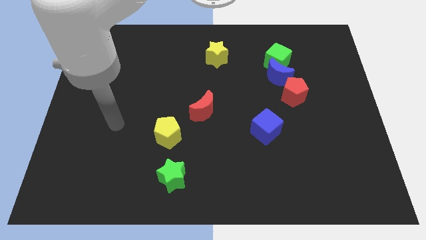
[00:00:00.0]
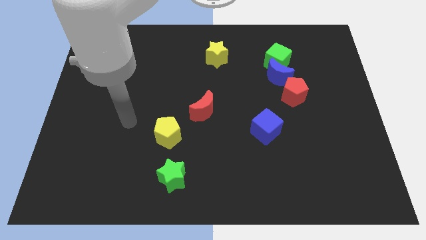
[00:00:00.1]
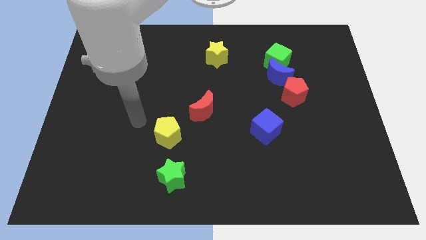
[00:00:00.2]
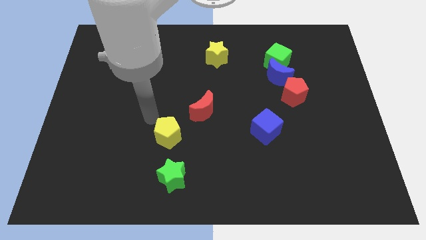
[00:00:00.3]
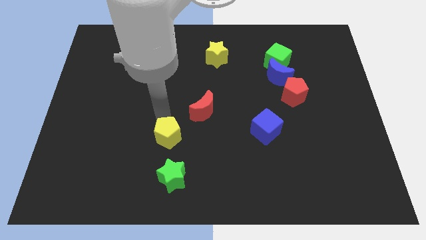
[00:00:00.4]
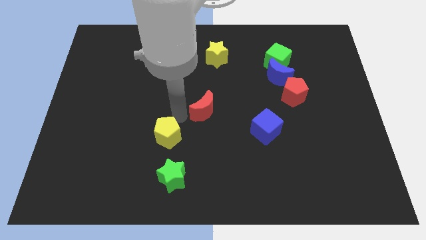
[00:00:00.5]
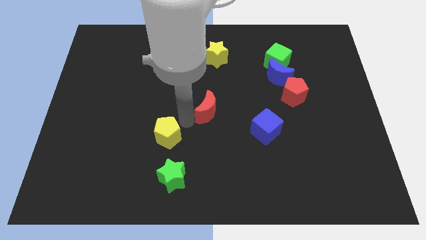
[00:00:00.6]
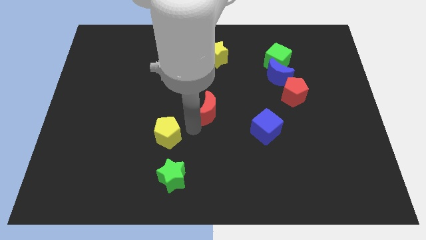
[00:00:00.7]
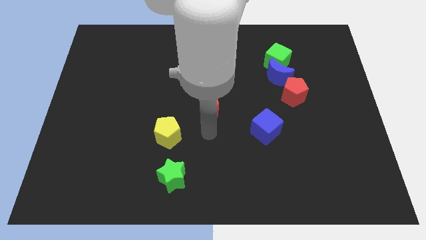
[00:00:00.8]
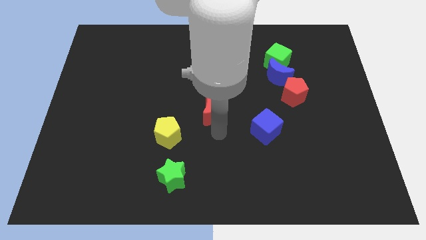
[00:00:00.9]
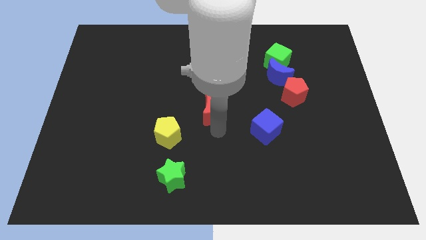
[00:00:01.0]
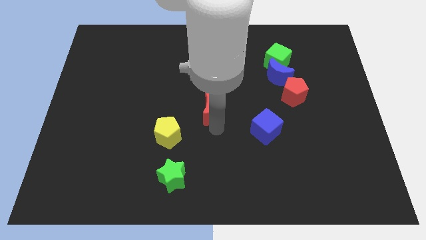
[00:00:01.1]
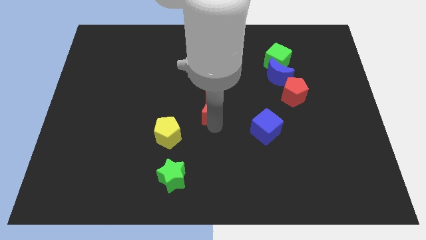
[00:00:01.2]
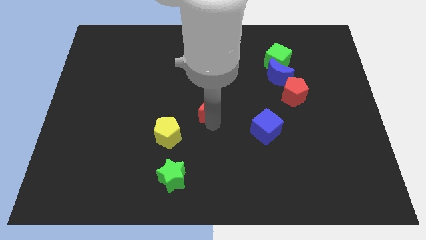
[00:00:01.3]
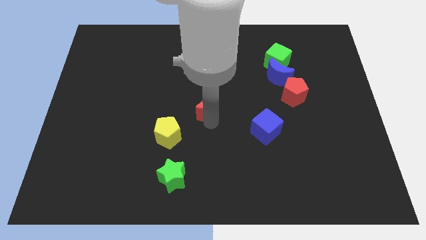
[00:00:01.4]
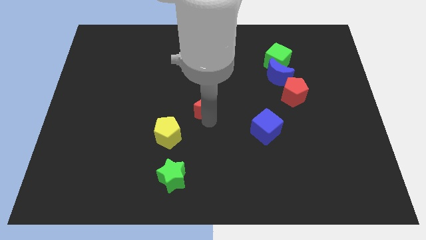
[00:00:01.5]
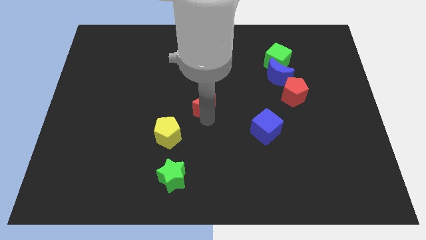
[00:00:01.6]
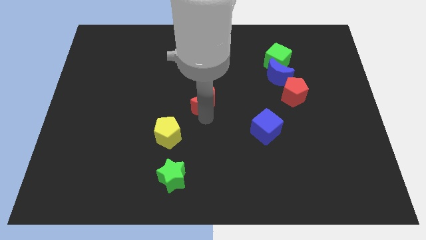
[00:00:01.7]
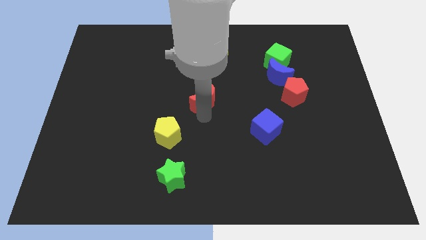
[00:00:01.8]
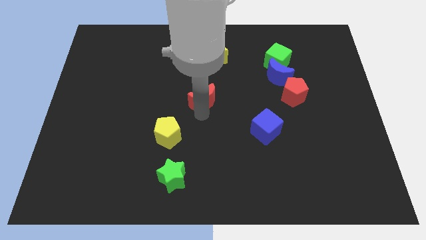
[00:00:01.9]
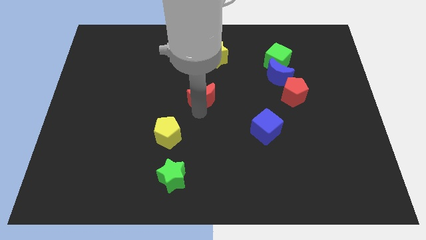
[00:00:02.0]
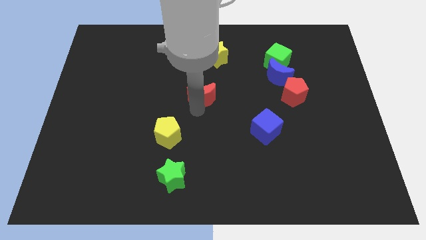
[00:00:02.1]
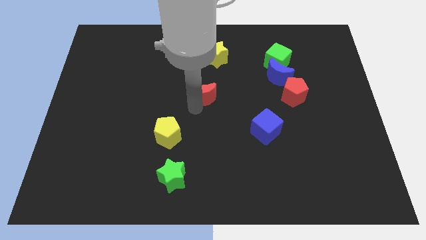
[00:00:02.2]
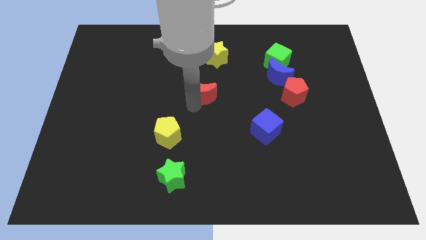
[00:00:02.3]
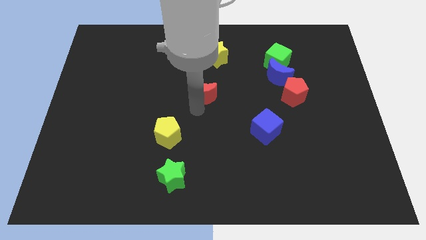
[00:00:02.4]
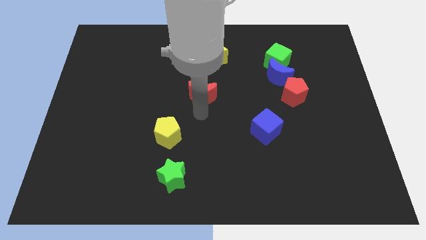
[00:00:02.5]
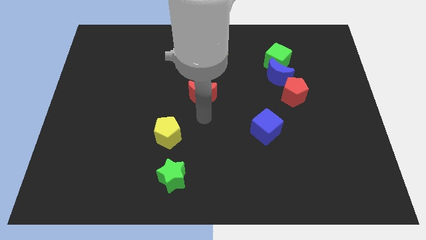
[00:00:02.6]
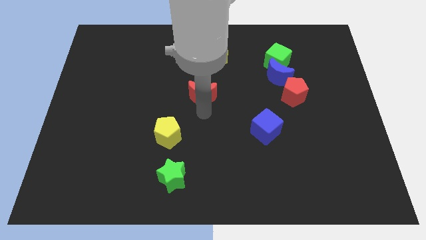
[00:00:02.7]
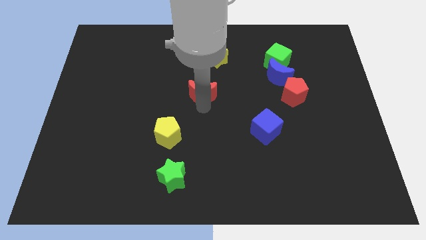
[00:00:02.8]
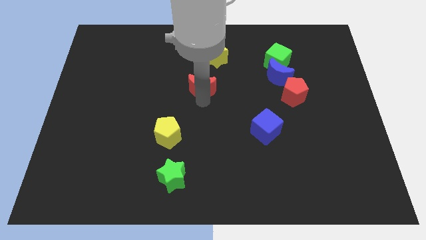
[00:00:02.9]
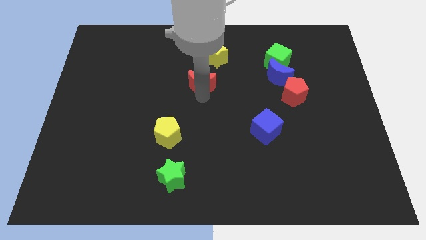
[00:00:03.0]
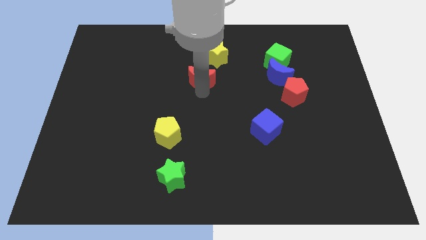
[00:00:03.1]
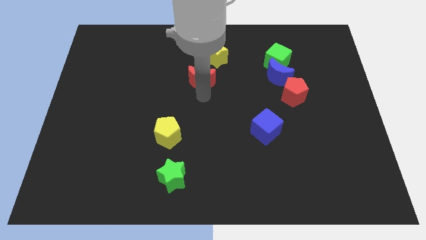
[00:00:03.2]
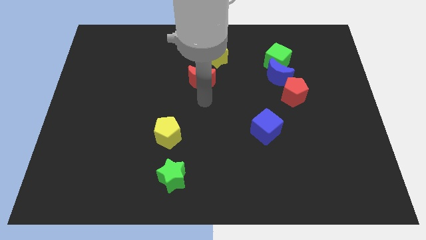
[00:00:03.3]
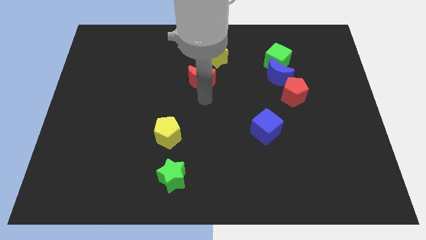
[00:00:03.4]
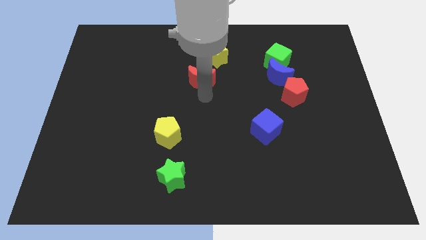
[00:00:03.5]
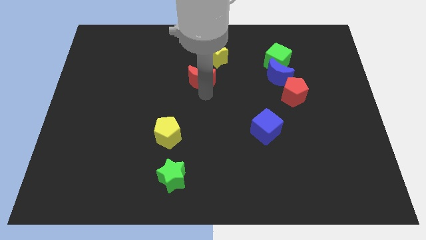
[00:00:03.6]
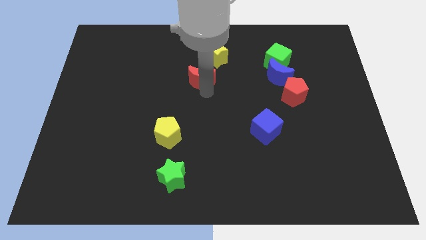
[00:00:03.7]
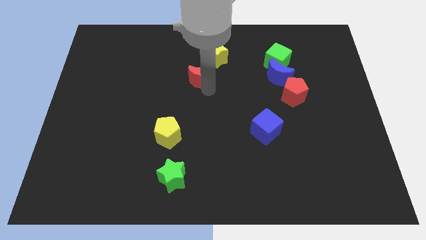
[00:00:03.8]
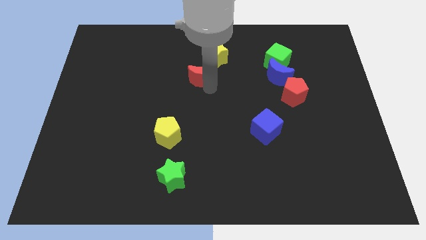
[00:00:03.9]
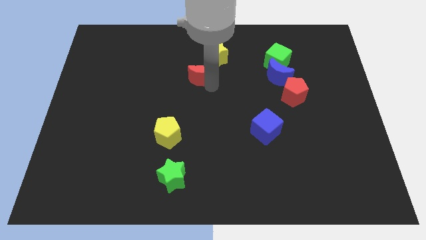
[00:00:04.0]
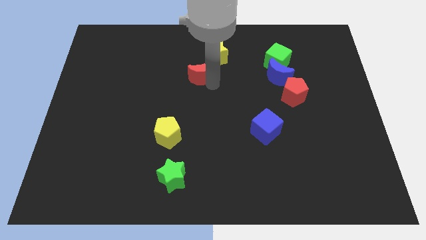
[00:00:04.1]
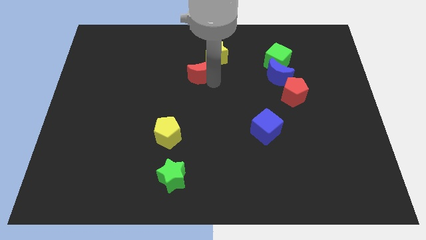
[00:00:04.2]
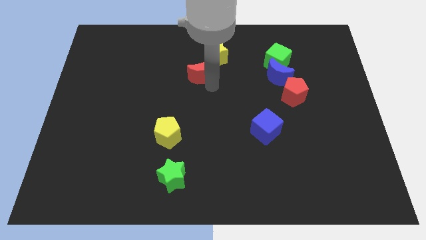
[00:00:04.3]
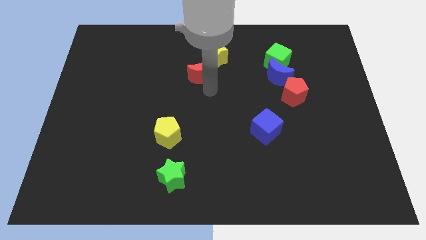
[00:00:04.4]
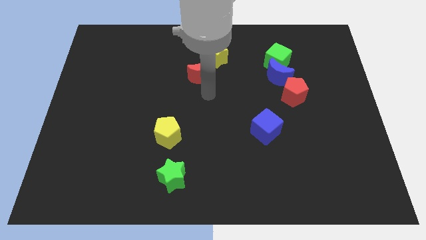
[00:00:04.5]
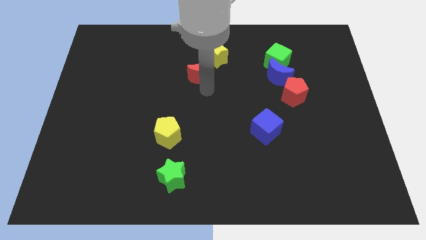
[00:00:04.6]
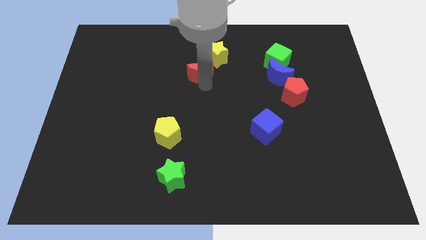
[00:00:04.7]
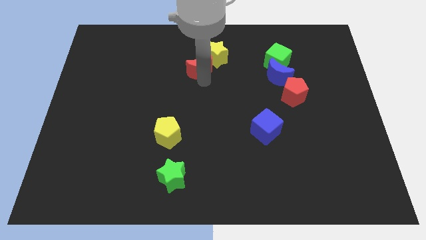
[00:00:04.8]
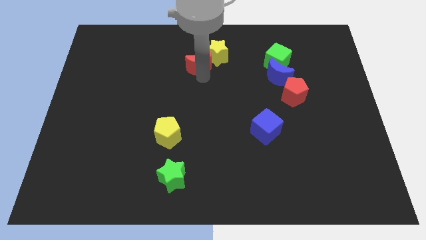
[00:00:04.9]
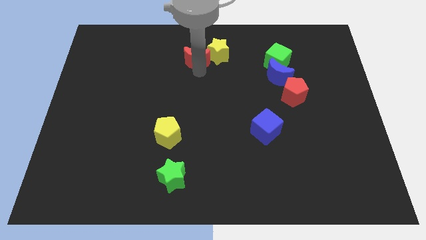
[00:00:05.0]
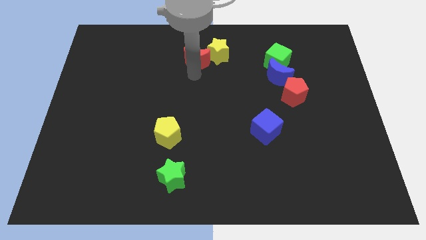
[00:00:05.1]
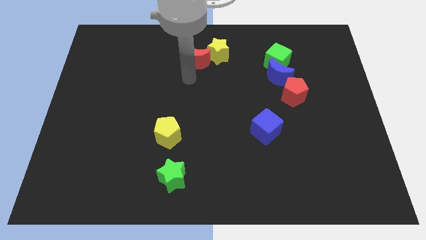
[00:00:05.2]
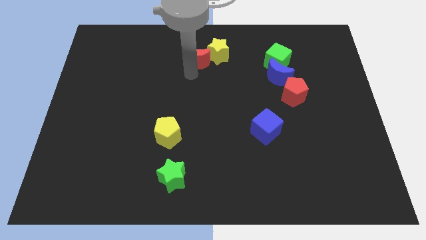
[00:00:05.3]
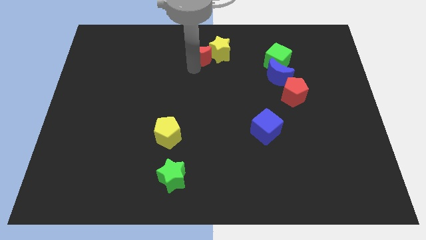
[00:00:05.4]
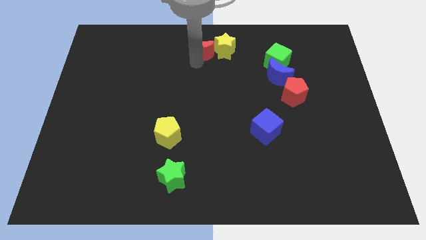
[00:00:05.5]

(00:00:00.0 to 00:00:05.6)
push the red moon to the top

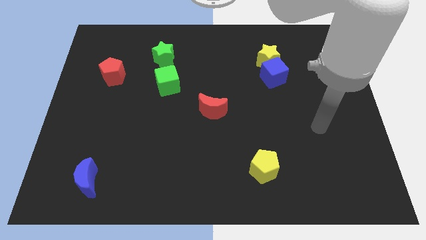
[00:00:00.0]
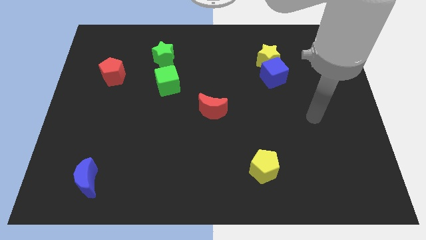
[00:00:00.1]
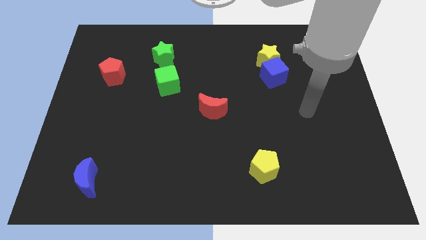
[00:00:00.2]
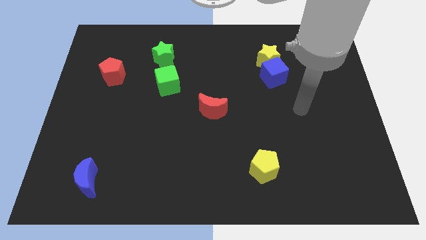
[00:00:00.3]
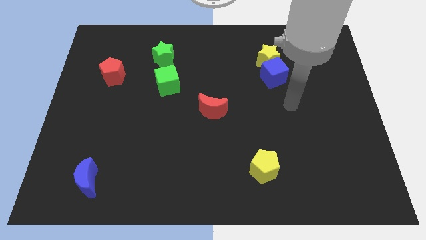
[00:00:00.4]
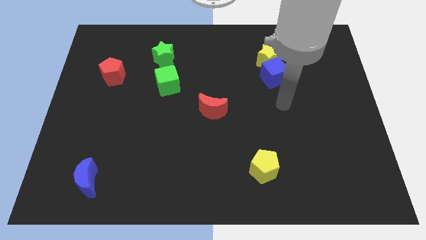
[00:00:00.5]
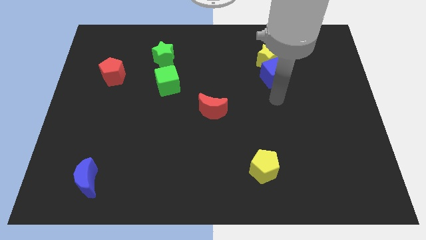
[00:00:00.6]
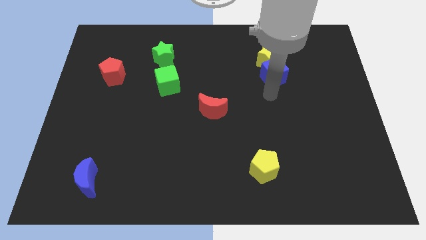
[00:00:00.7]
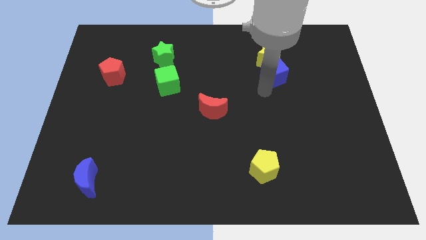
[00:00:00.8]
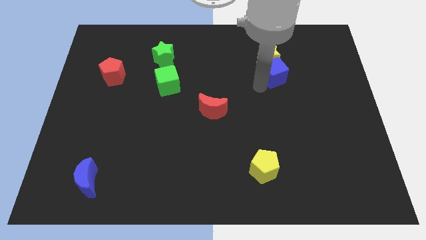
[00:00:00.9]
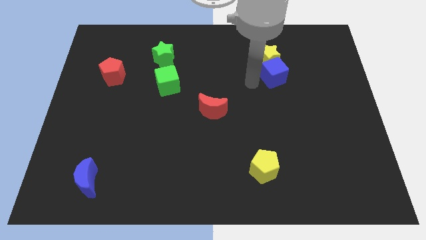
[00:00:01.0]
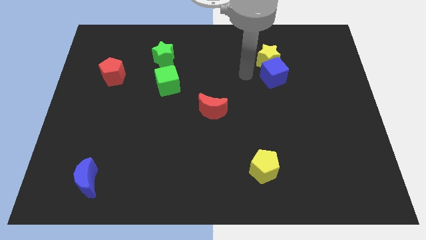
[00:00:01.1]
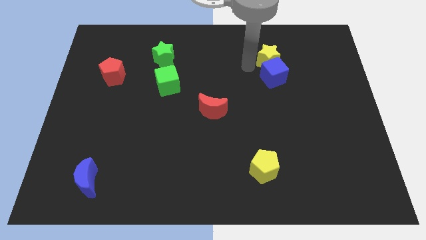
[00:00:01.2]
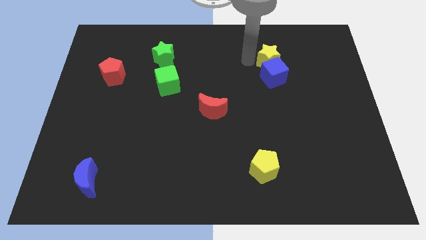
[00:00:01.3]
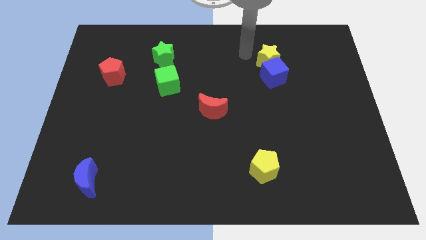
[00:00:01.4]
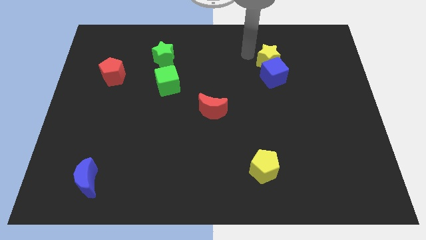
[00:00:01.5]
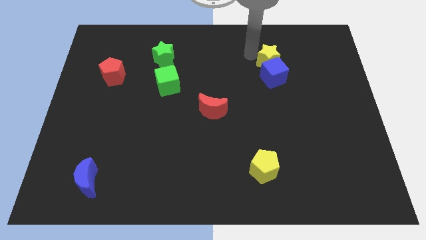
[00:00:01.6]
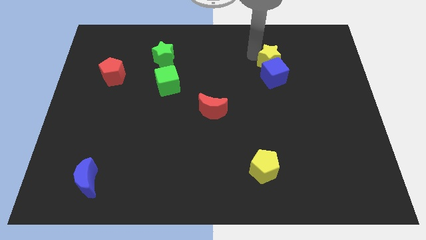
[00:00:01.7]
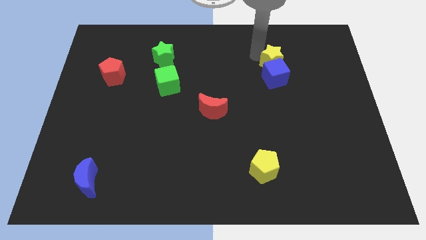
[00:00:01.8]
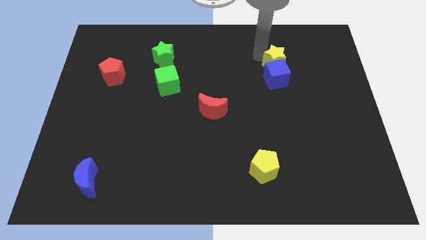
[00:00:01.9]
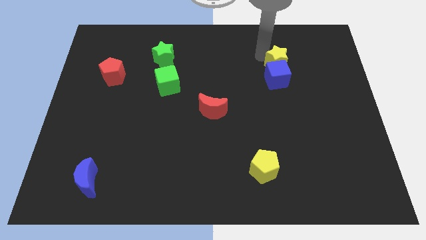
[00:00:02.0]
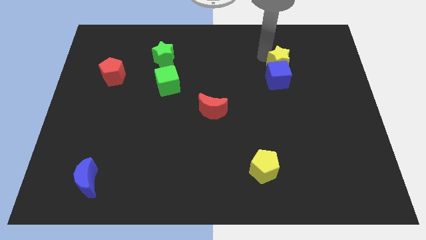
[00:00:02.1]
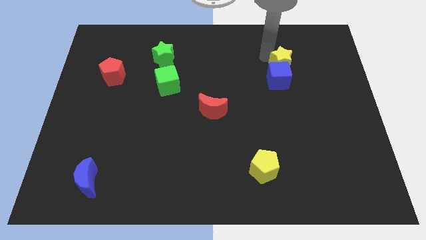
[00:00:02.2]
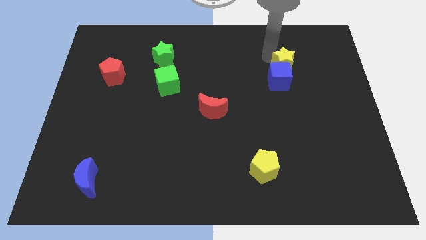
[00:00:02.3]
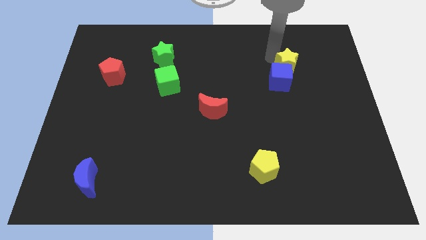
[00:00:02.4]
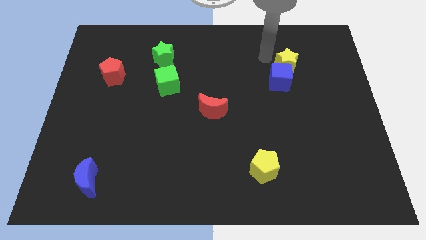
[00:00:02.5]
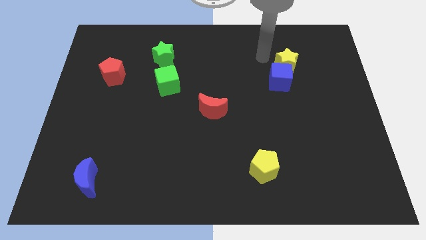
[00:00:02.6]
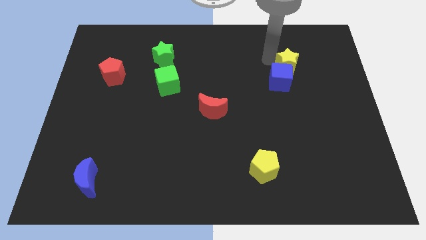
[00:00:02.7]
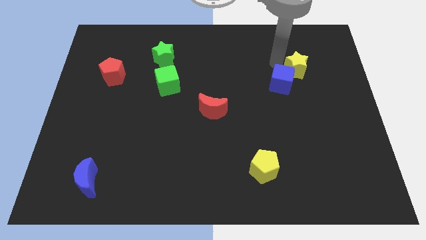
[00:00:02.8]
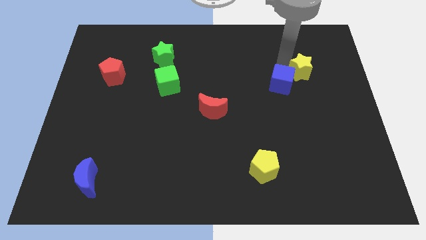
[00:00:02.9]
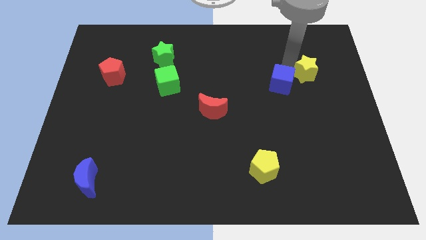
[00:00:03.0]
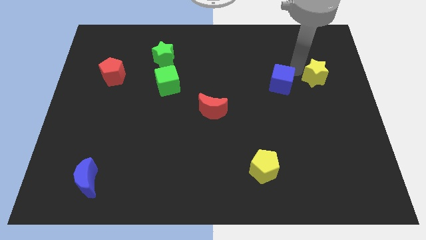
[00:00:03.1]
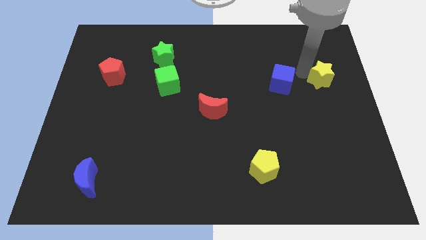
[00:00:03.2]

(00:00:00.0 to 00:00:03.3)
move the yellow star to the right side
